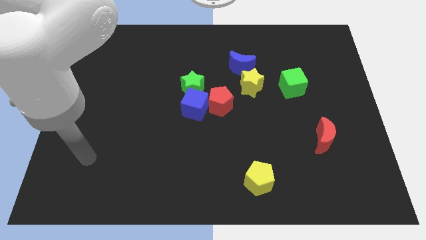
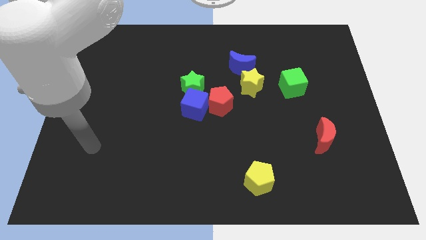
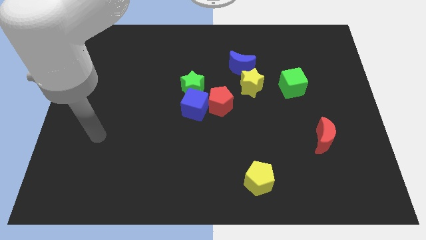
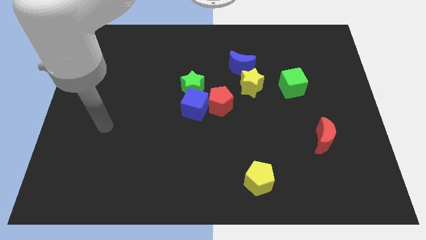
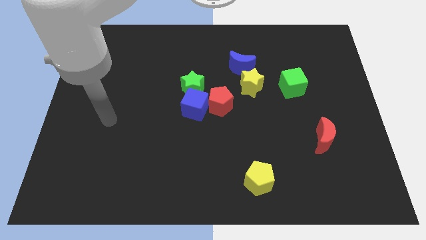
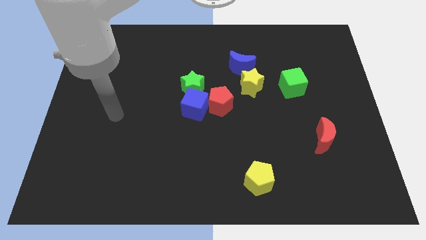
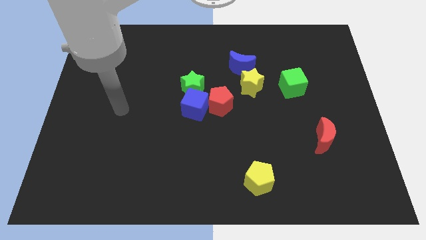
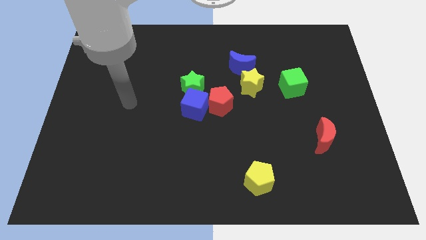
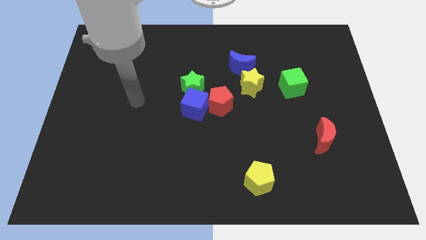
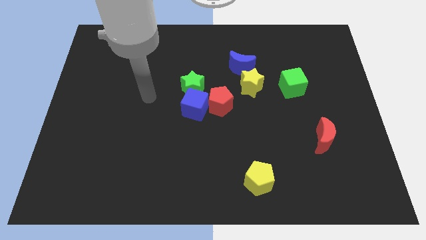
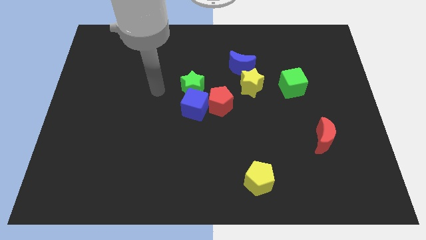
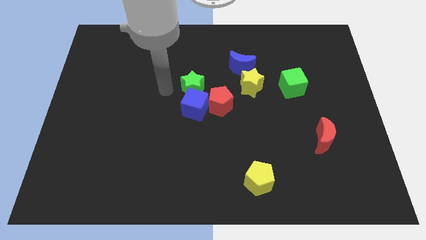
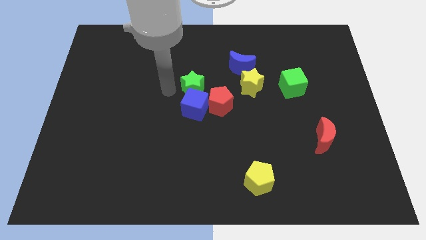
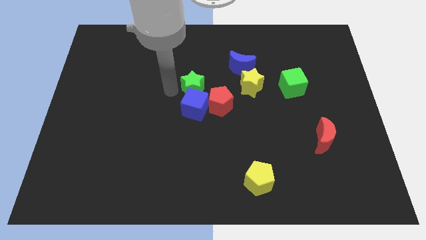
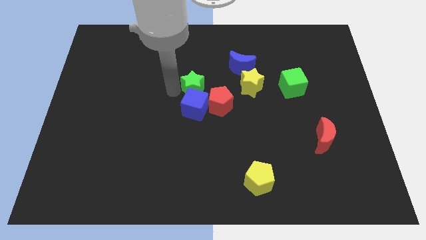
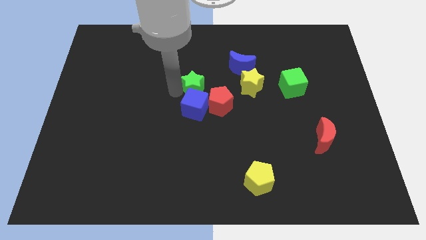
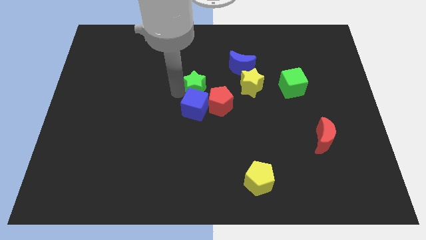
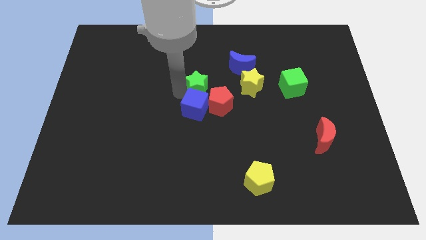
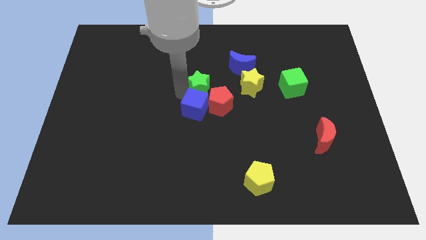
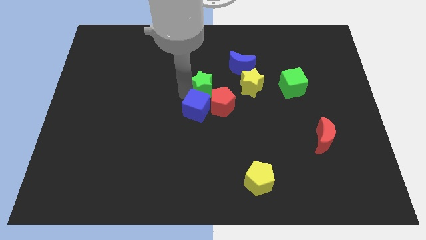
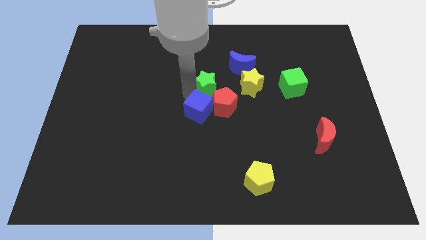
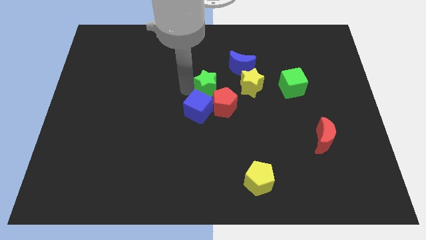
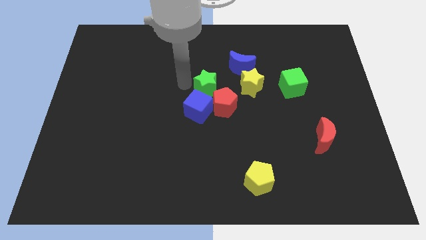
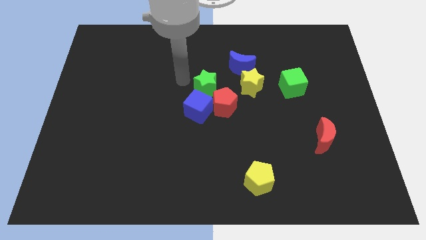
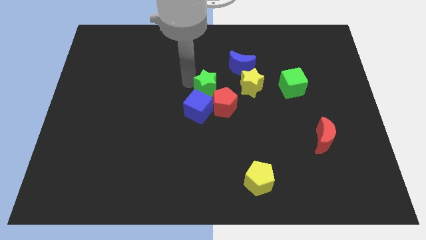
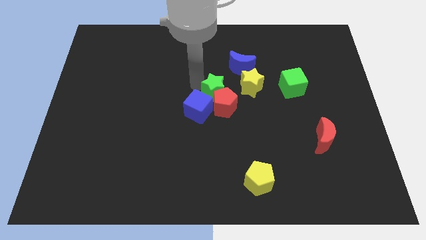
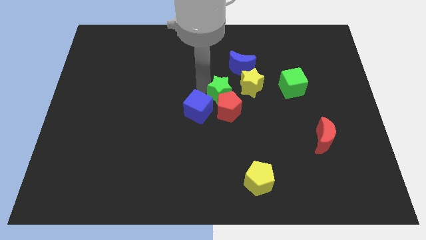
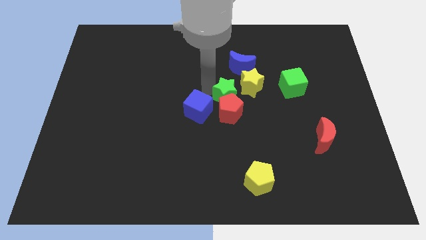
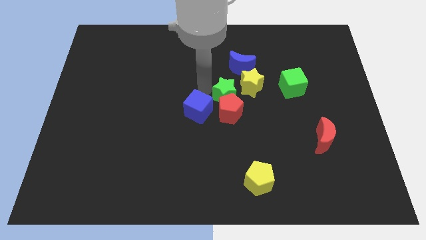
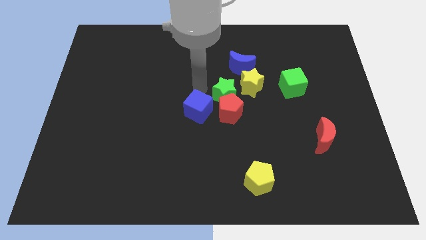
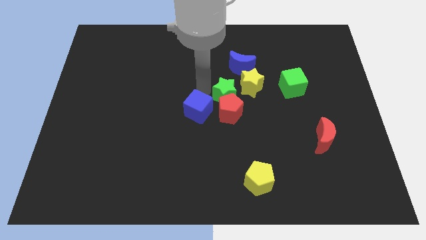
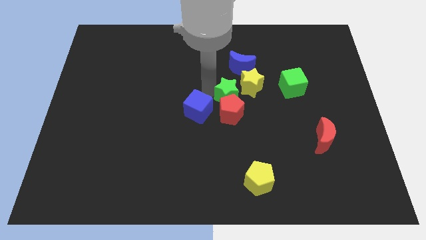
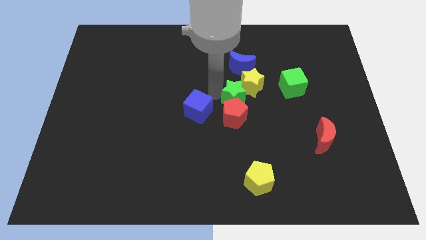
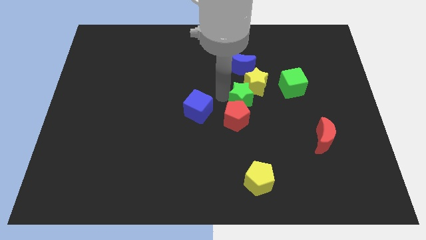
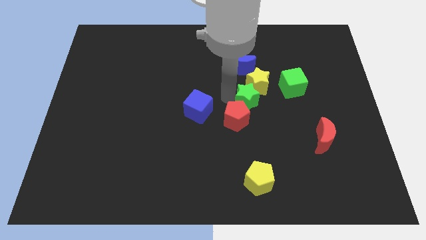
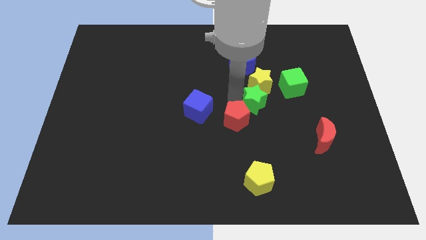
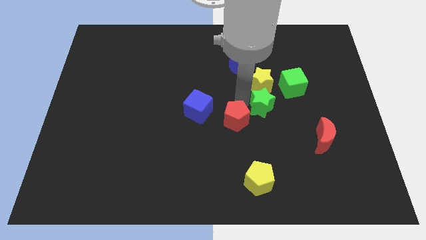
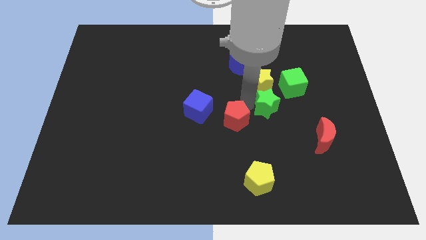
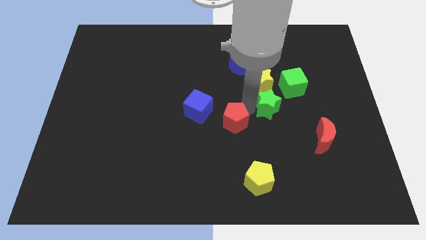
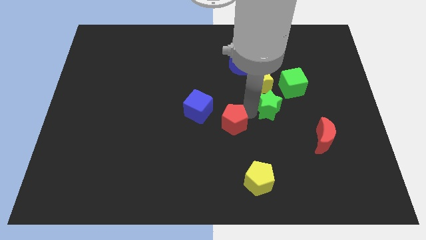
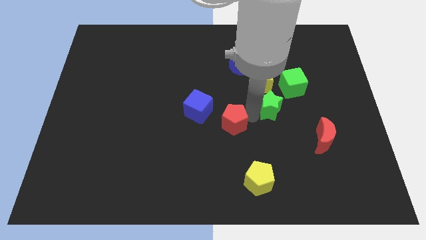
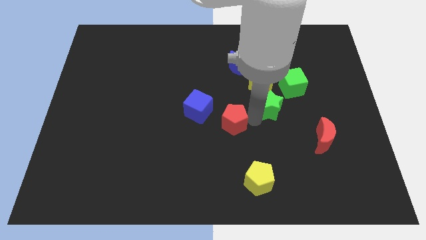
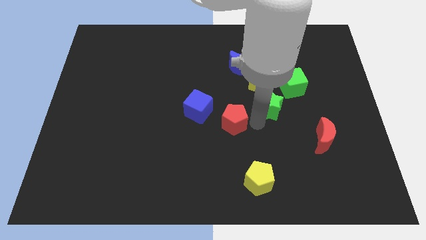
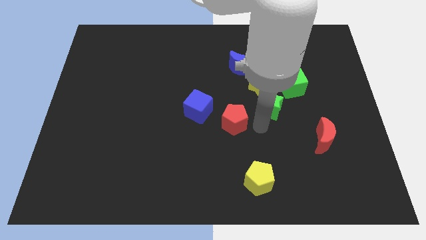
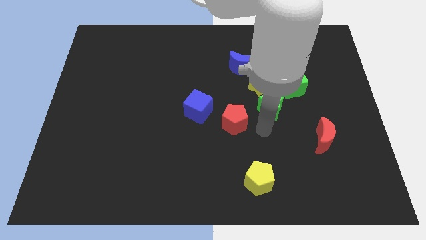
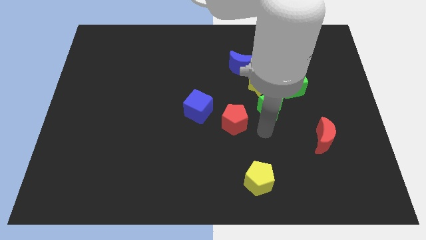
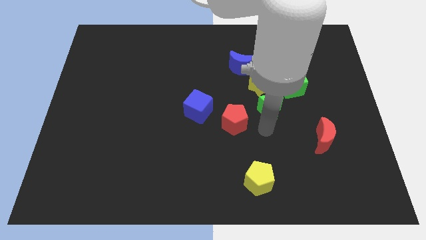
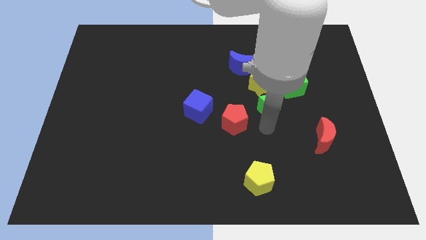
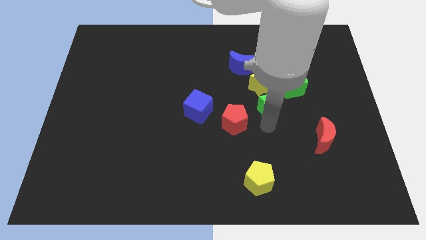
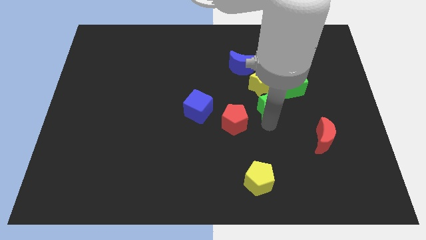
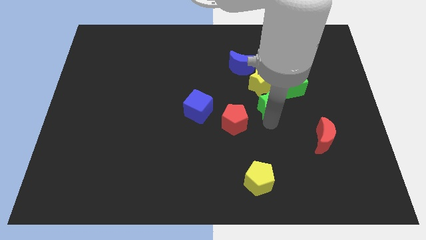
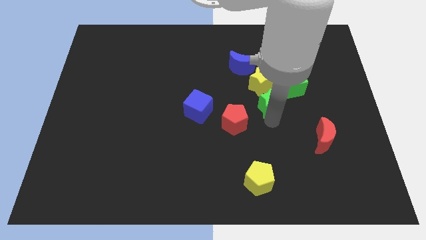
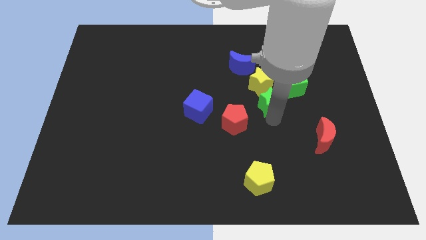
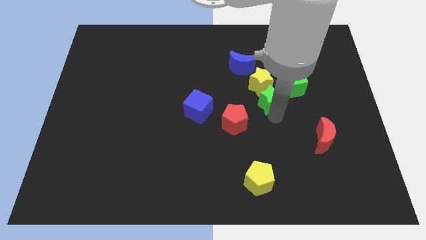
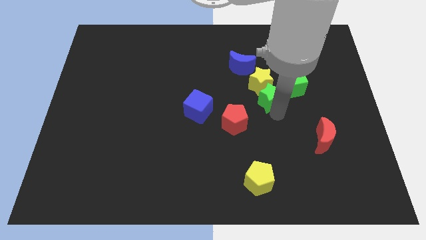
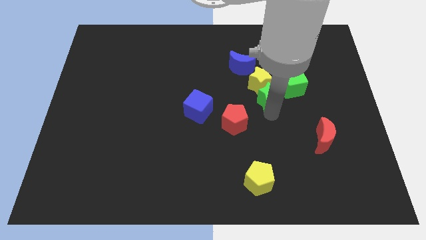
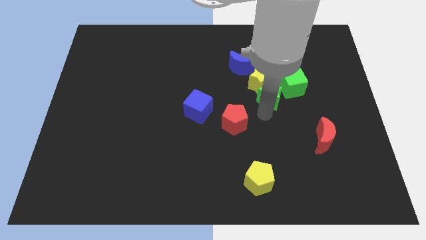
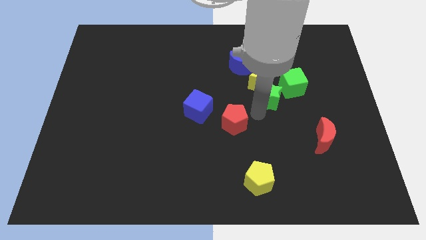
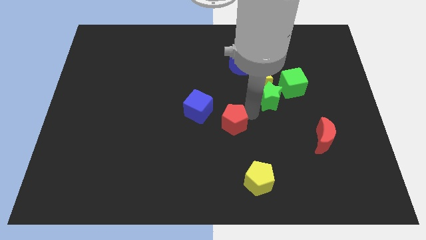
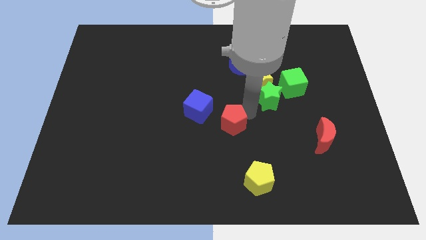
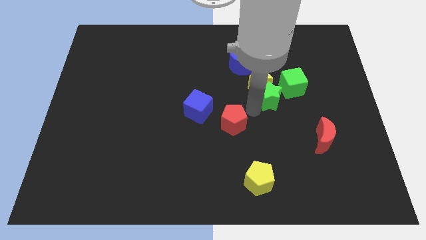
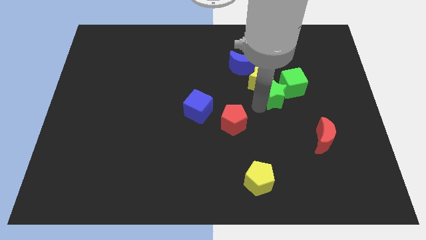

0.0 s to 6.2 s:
slide the green star towards the green cube

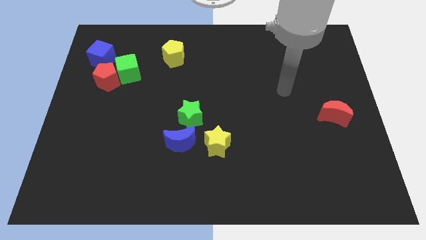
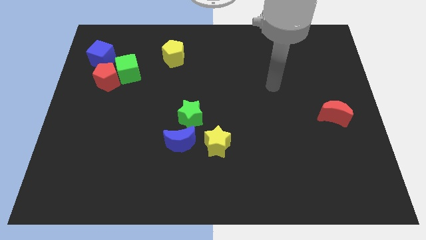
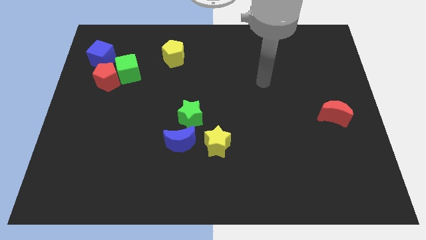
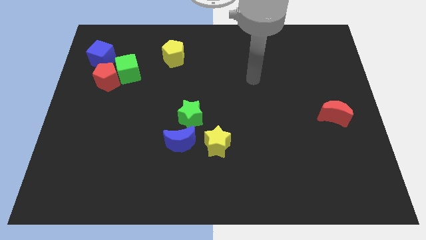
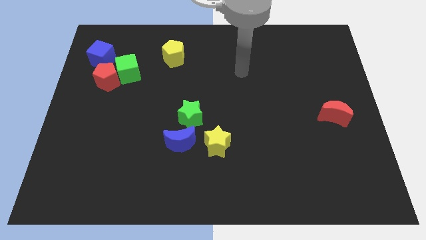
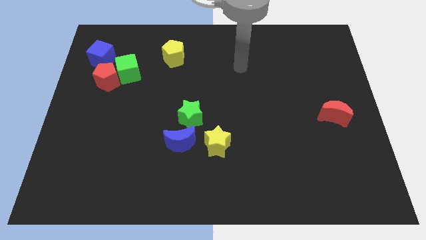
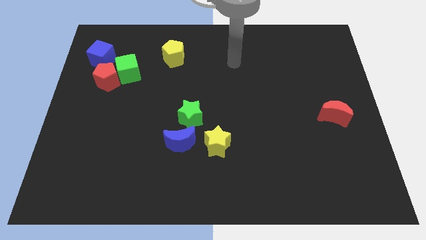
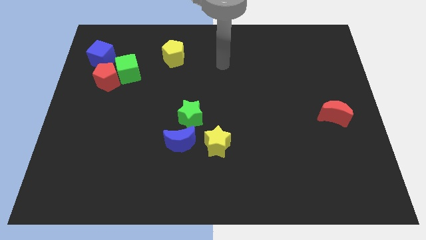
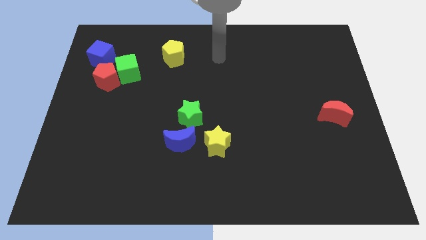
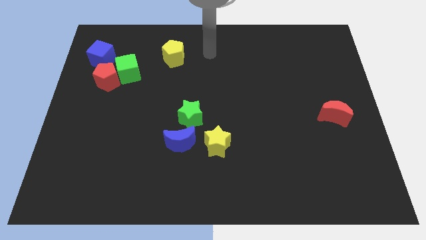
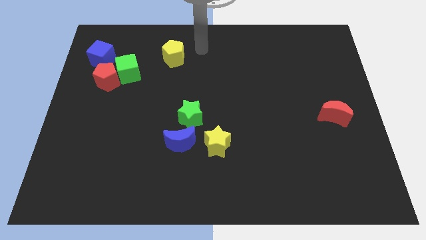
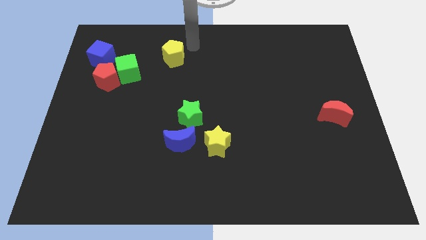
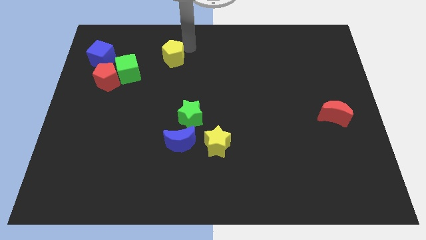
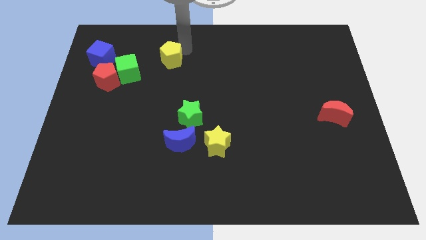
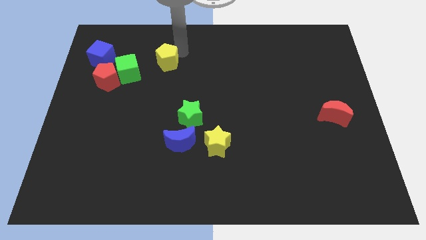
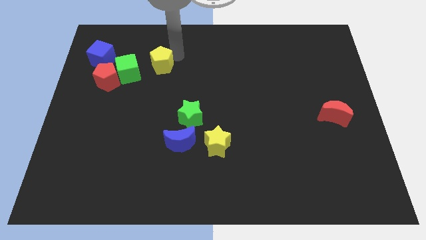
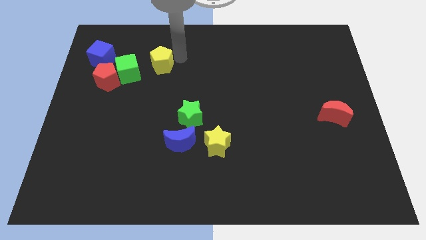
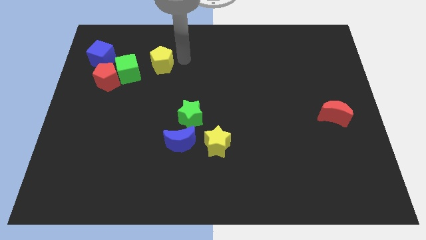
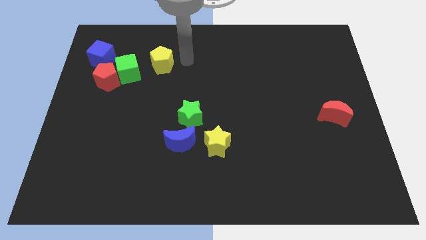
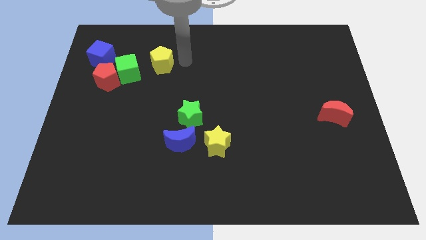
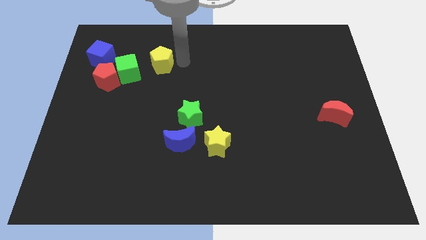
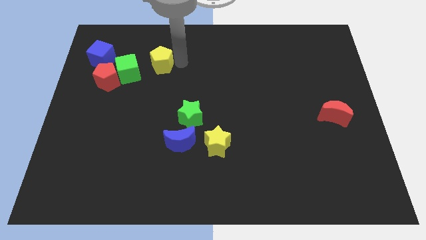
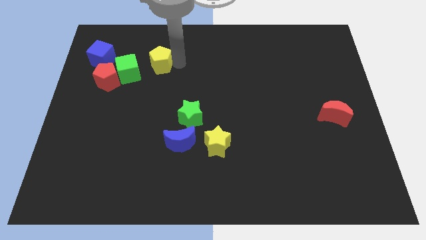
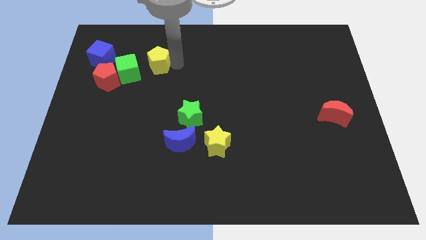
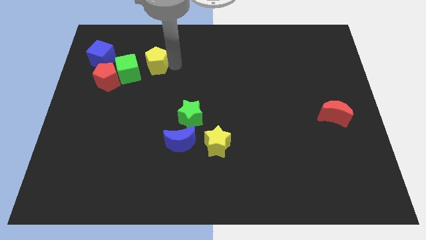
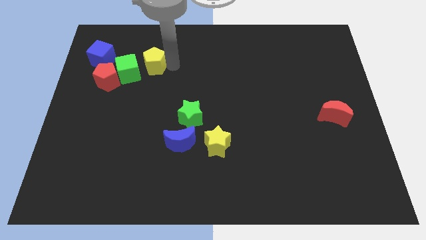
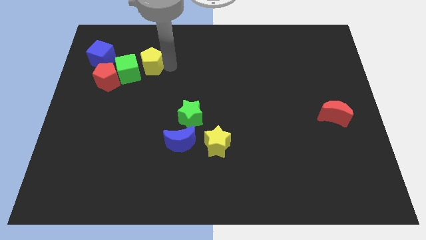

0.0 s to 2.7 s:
move the yellow pentagon towards the green cube
